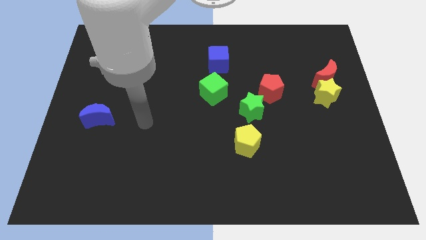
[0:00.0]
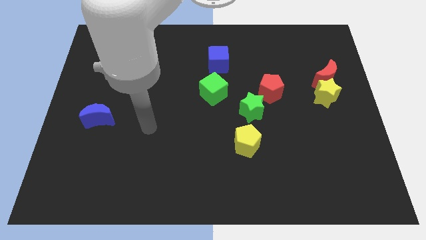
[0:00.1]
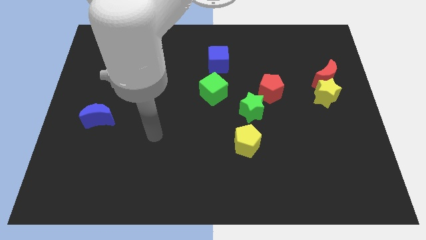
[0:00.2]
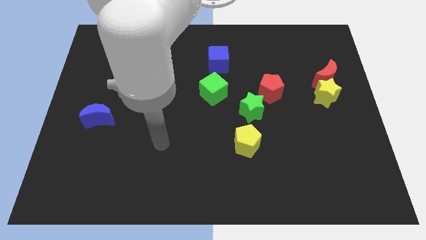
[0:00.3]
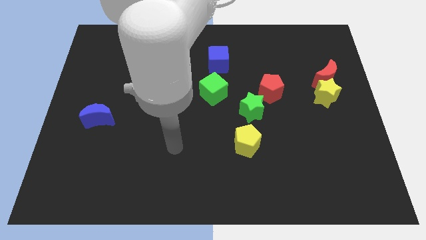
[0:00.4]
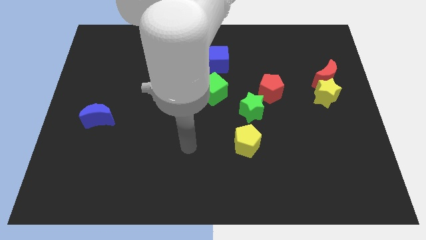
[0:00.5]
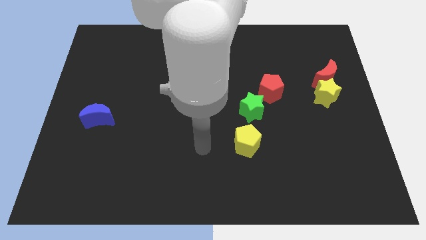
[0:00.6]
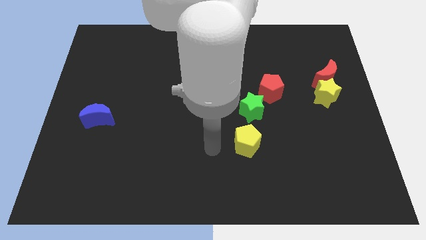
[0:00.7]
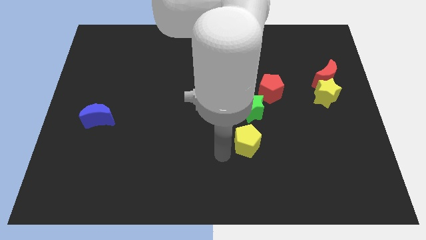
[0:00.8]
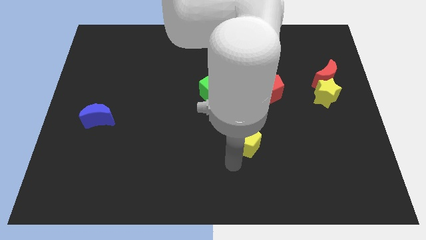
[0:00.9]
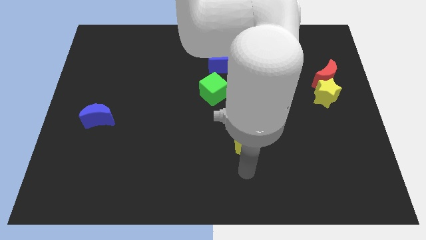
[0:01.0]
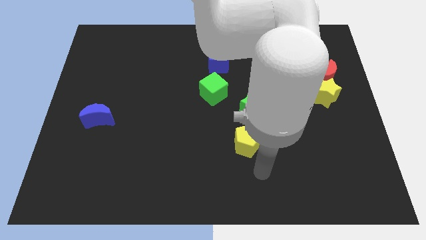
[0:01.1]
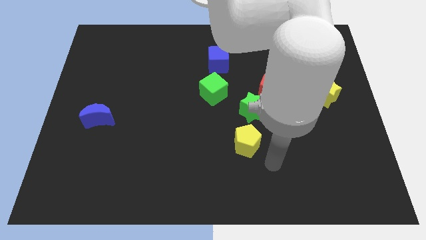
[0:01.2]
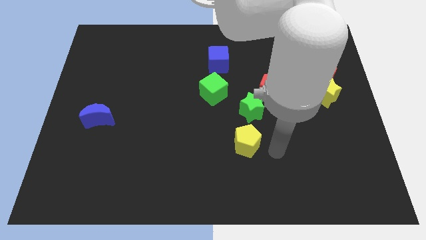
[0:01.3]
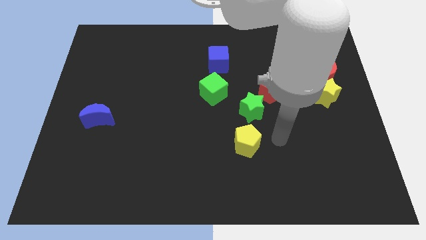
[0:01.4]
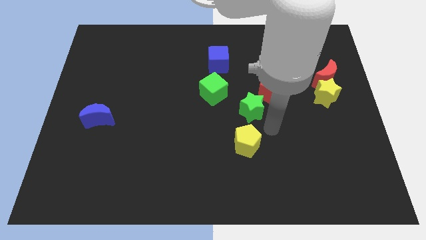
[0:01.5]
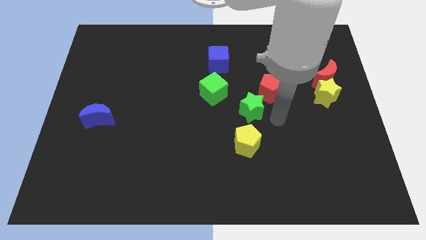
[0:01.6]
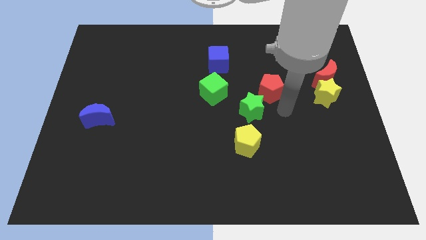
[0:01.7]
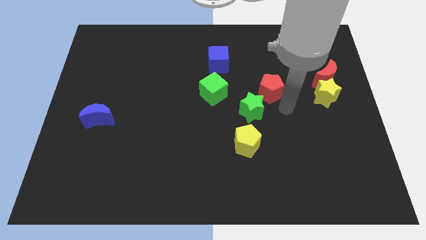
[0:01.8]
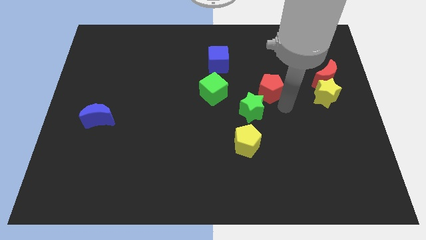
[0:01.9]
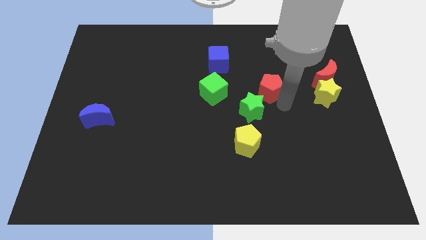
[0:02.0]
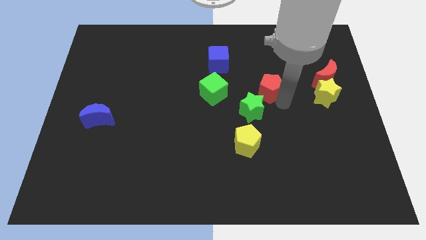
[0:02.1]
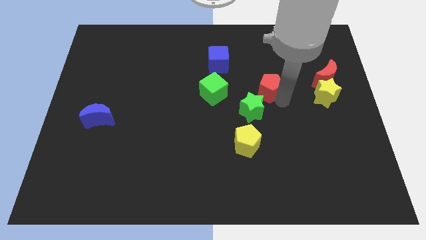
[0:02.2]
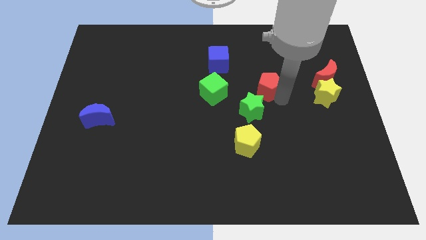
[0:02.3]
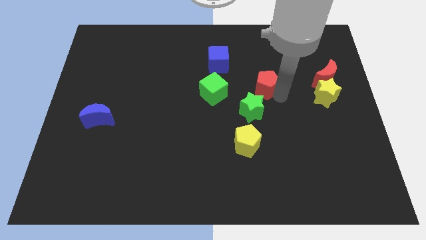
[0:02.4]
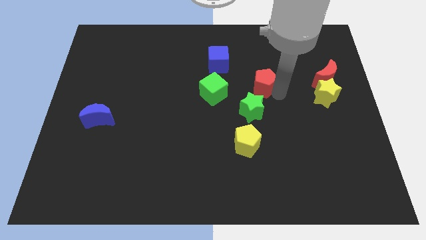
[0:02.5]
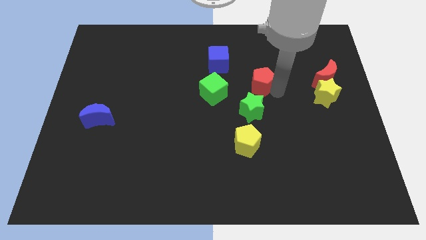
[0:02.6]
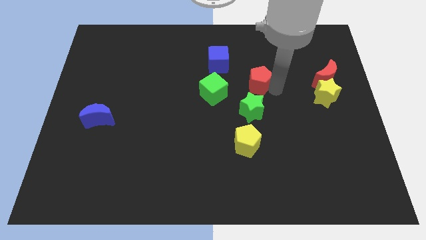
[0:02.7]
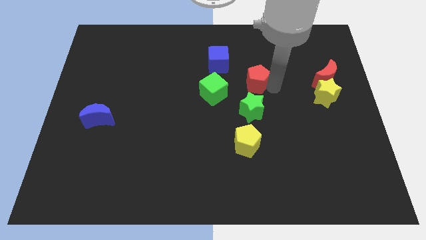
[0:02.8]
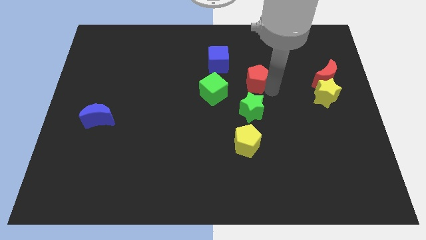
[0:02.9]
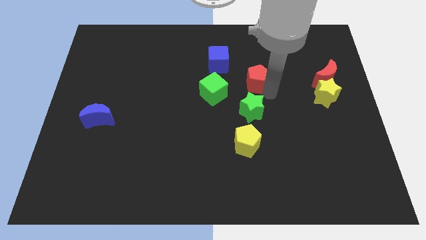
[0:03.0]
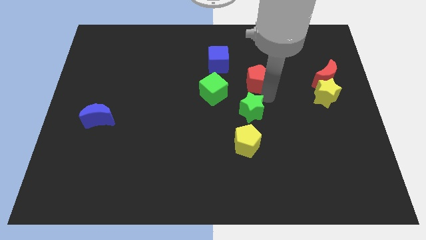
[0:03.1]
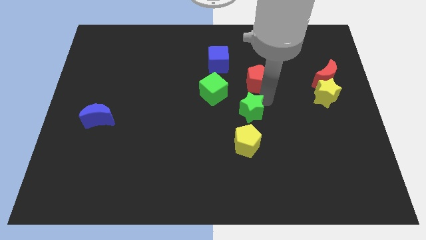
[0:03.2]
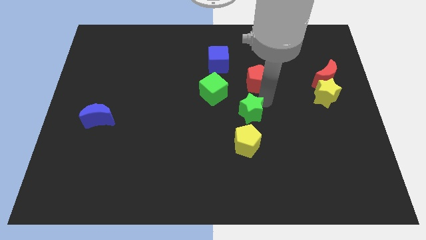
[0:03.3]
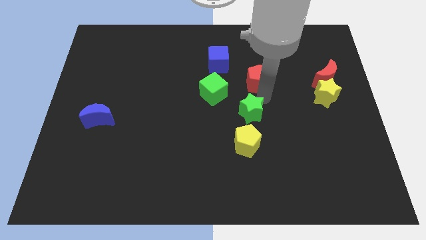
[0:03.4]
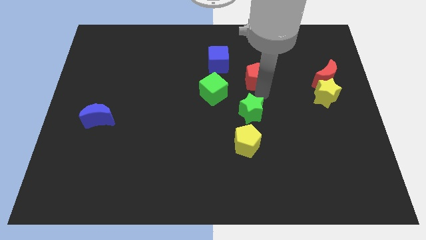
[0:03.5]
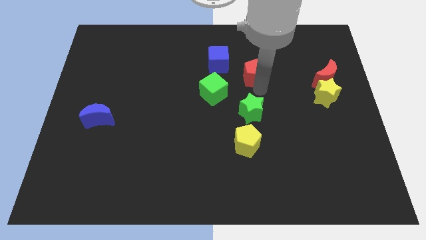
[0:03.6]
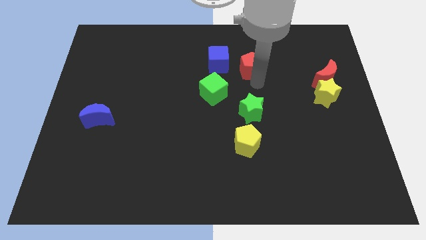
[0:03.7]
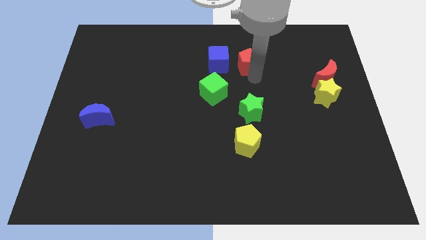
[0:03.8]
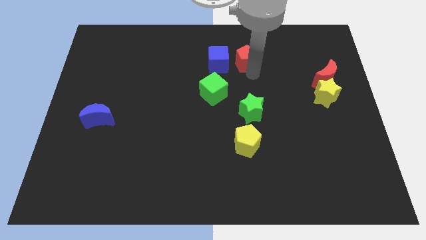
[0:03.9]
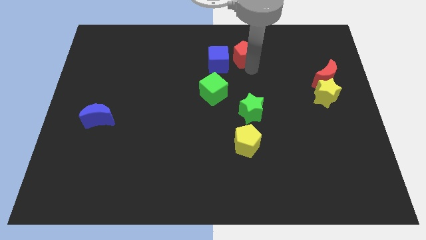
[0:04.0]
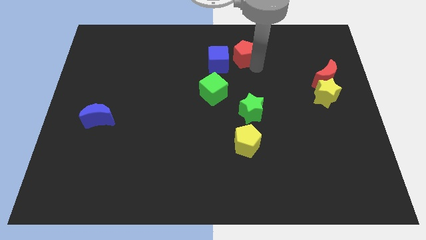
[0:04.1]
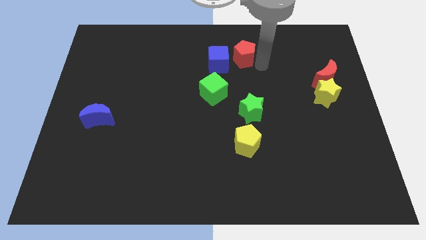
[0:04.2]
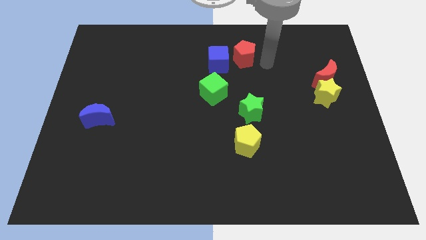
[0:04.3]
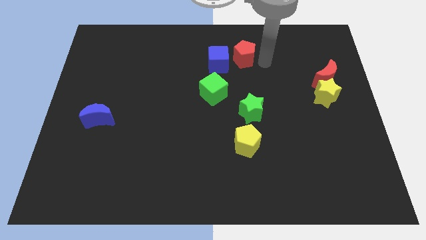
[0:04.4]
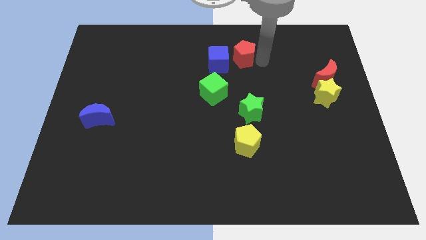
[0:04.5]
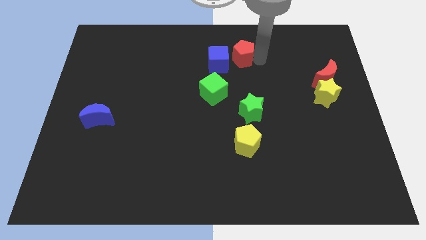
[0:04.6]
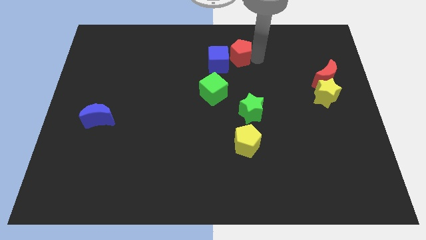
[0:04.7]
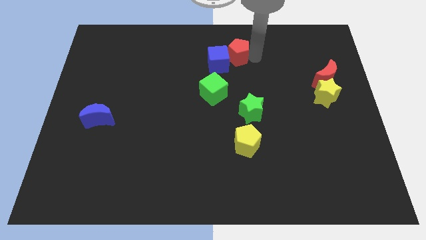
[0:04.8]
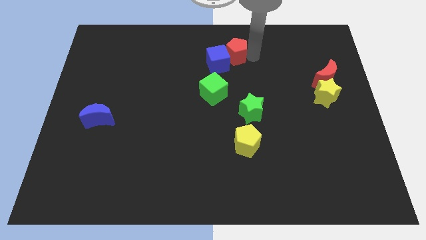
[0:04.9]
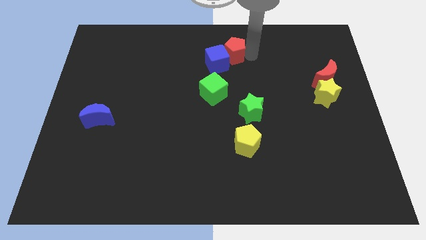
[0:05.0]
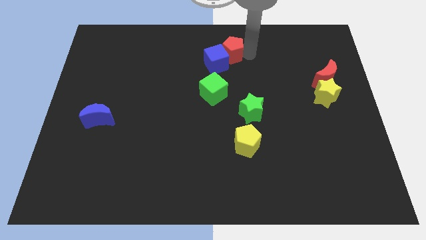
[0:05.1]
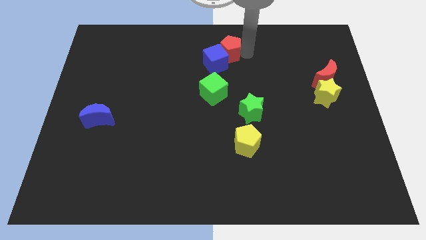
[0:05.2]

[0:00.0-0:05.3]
put the red pentagon to the top side of the green cube

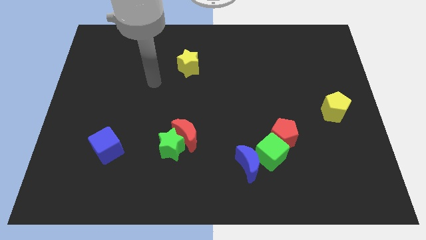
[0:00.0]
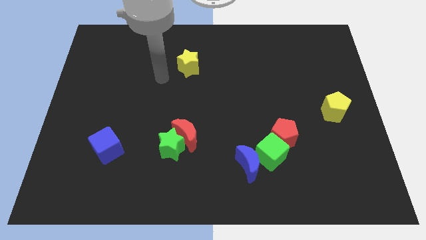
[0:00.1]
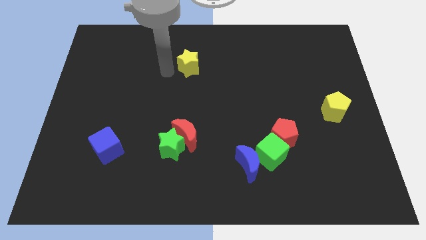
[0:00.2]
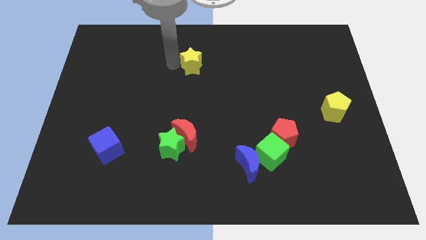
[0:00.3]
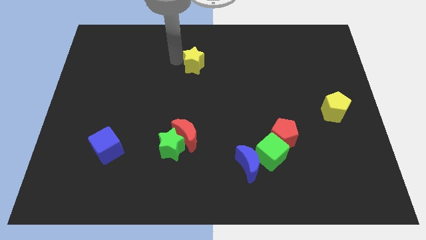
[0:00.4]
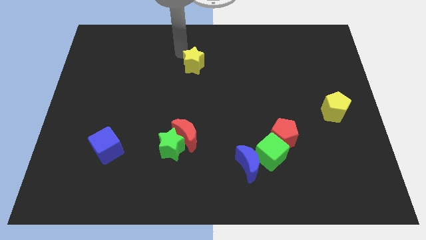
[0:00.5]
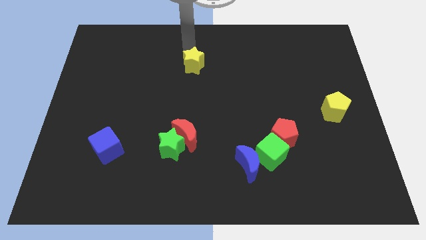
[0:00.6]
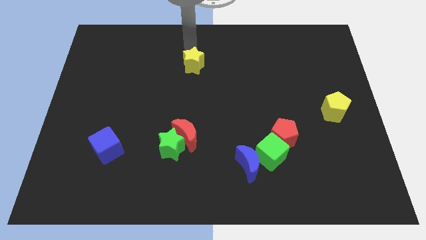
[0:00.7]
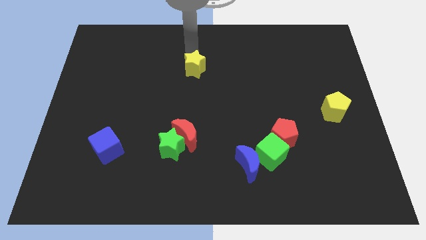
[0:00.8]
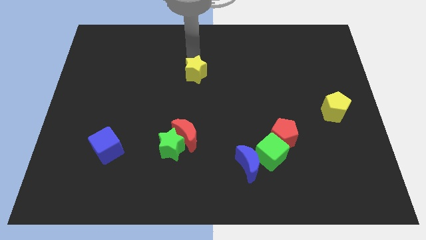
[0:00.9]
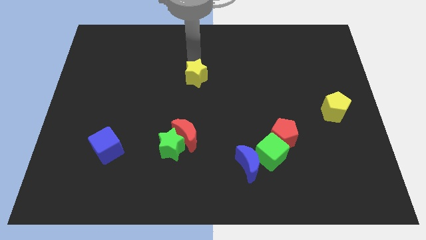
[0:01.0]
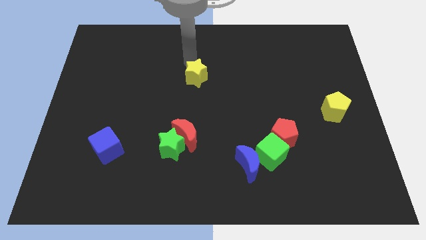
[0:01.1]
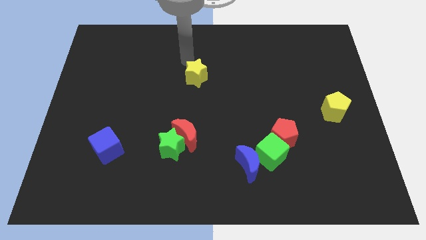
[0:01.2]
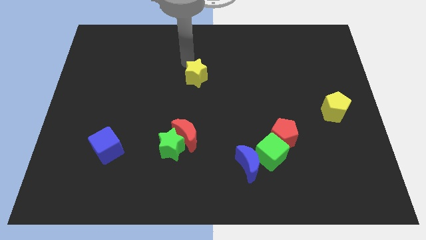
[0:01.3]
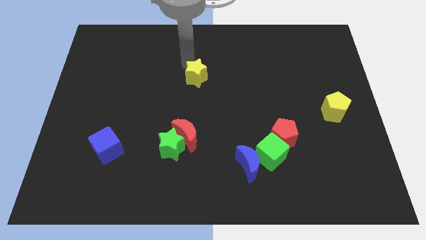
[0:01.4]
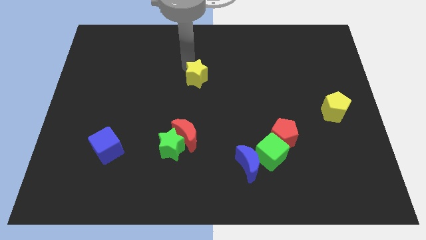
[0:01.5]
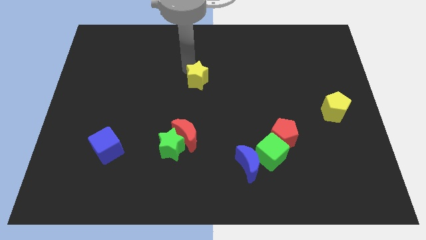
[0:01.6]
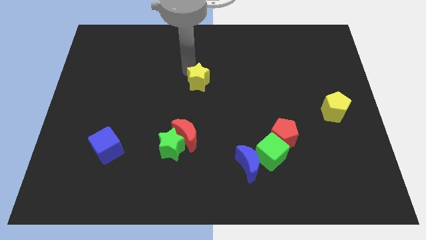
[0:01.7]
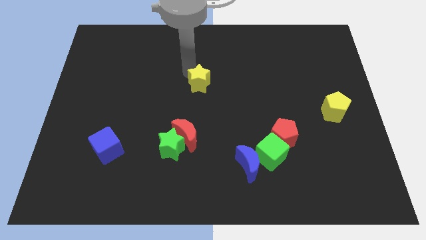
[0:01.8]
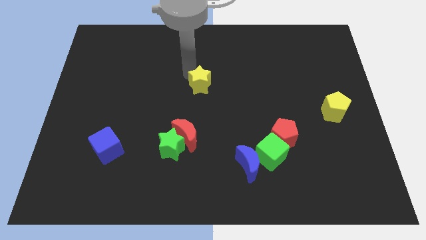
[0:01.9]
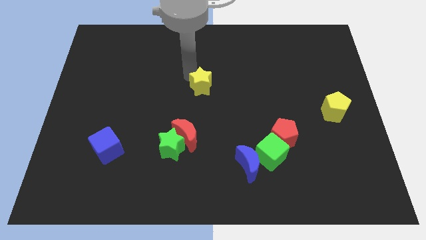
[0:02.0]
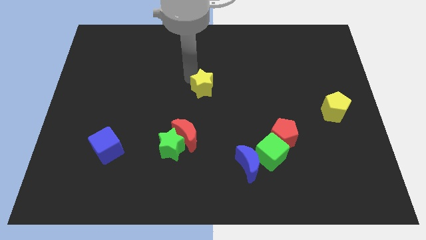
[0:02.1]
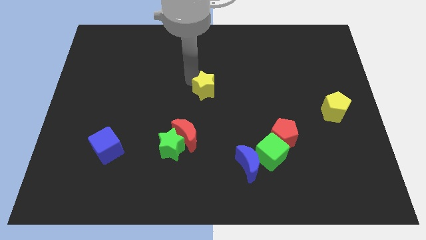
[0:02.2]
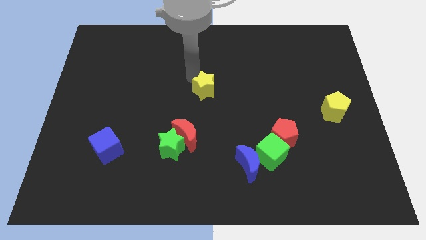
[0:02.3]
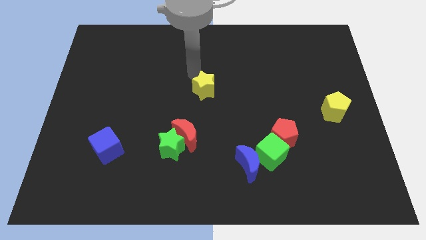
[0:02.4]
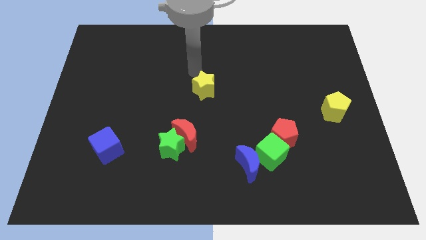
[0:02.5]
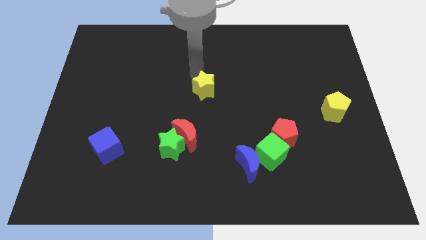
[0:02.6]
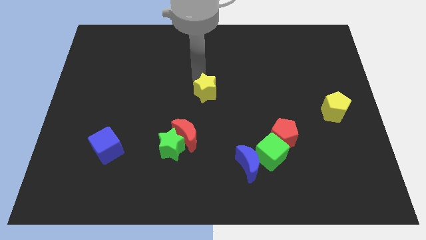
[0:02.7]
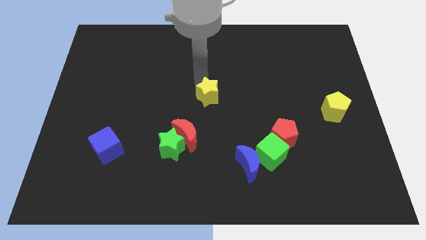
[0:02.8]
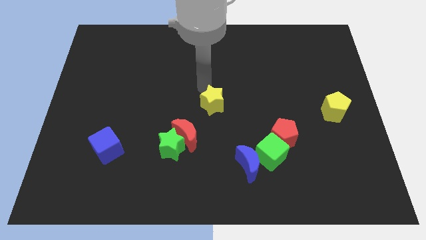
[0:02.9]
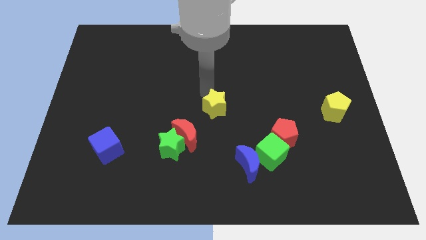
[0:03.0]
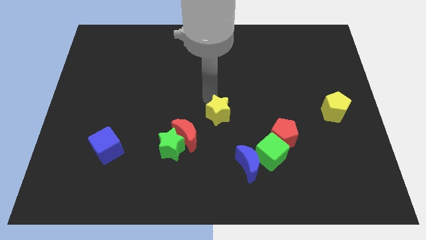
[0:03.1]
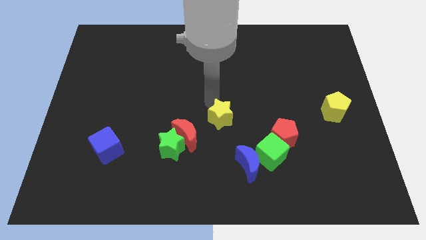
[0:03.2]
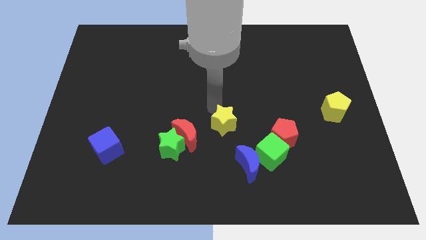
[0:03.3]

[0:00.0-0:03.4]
move the yellow star to the top left side of the green cube
